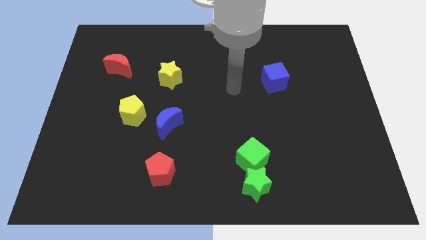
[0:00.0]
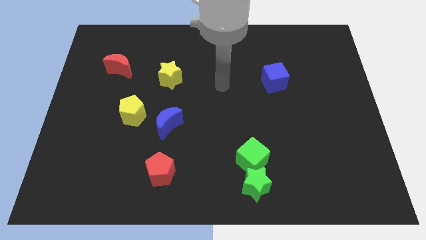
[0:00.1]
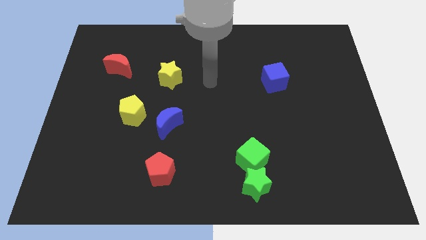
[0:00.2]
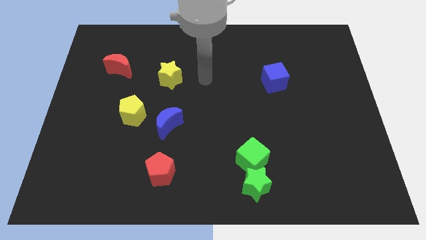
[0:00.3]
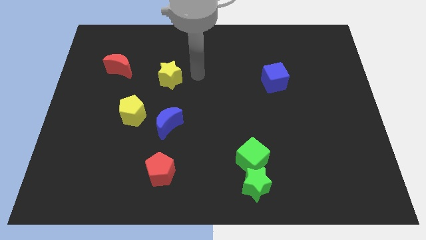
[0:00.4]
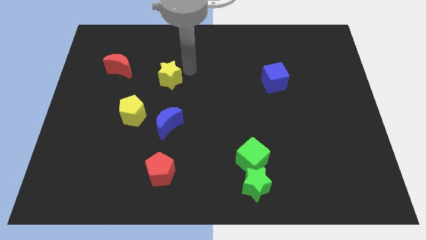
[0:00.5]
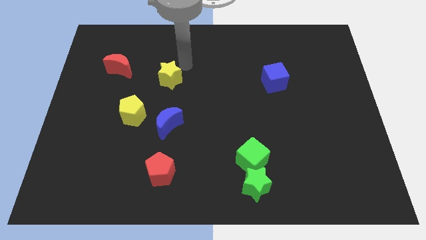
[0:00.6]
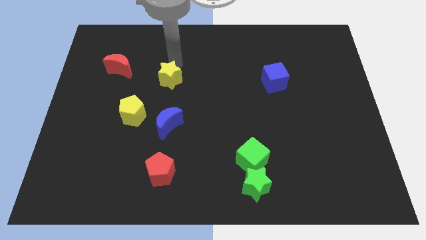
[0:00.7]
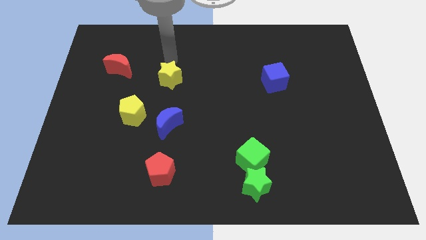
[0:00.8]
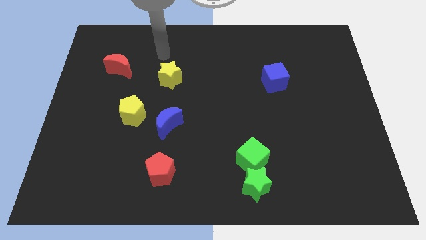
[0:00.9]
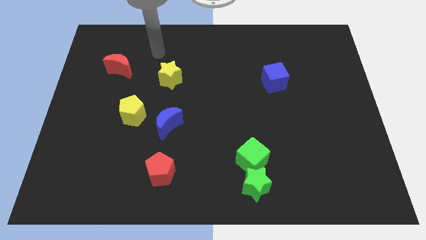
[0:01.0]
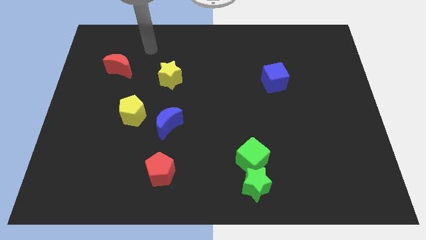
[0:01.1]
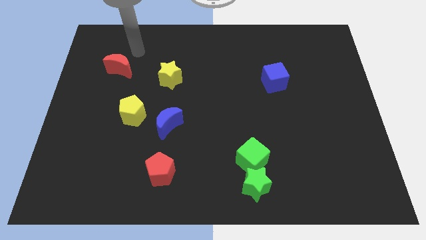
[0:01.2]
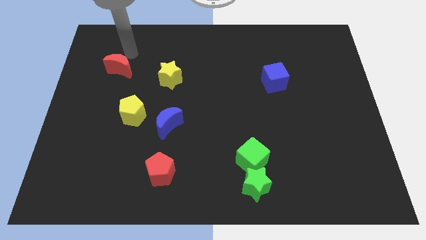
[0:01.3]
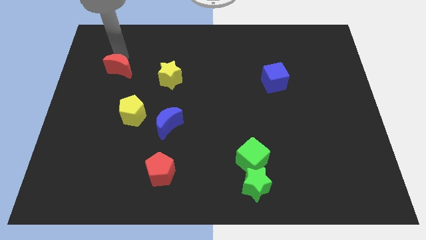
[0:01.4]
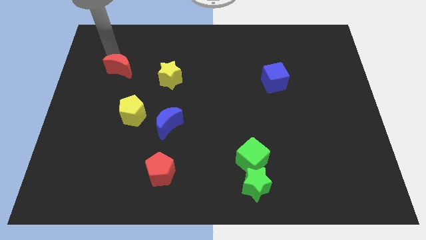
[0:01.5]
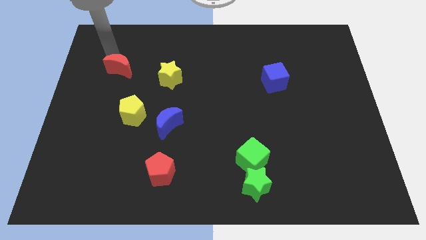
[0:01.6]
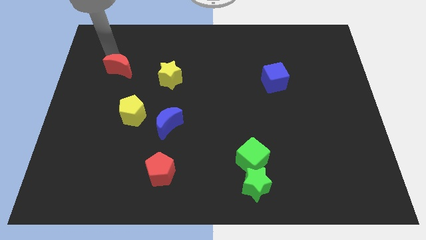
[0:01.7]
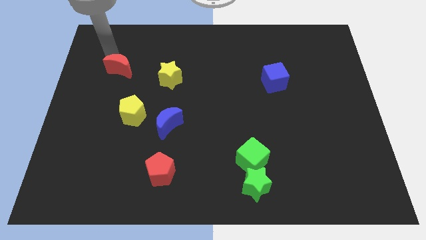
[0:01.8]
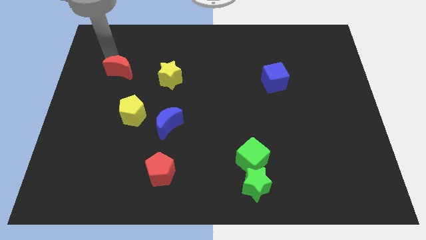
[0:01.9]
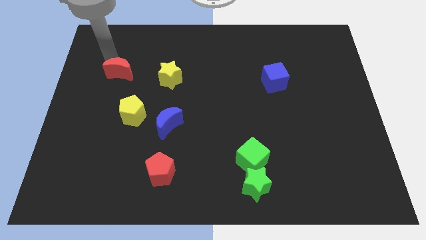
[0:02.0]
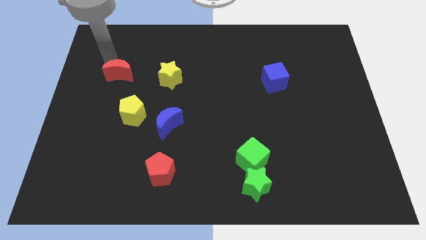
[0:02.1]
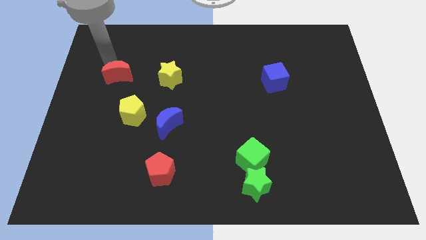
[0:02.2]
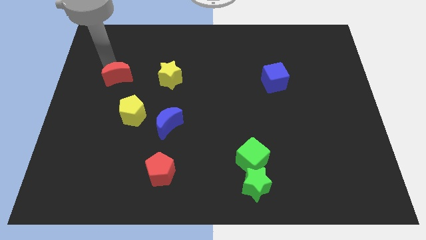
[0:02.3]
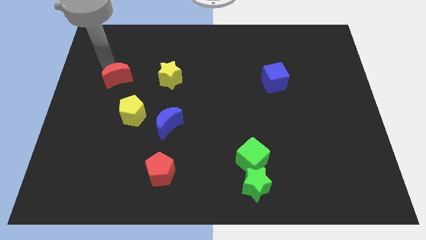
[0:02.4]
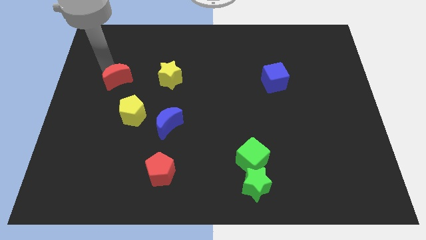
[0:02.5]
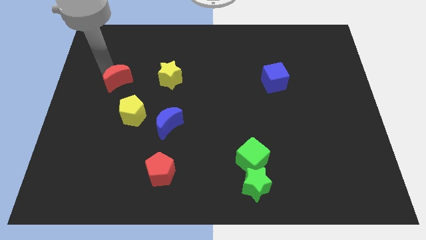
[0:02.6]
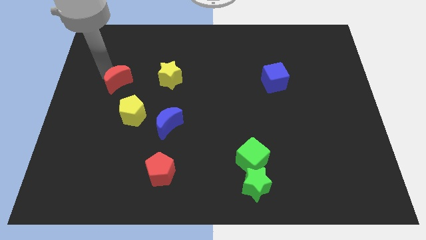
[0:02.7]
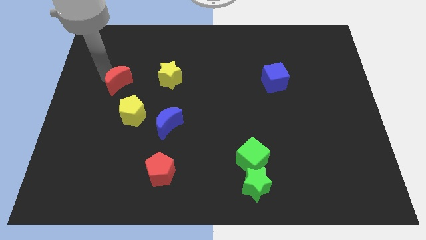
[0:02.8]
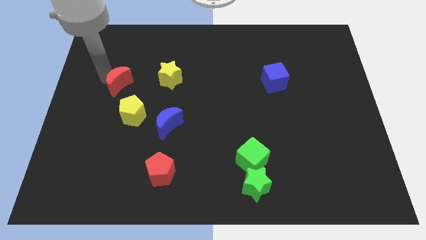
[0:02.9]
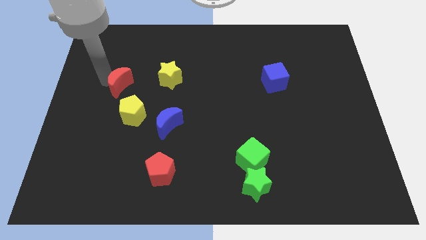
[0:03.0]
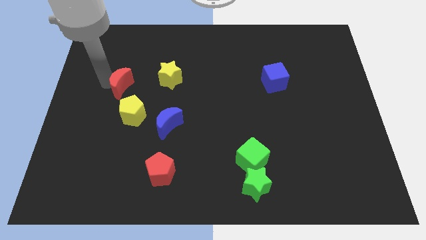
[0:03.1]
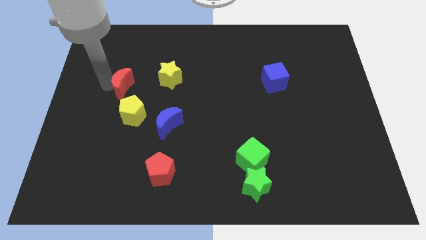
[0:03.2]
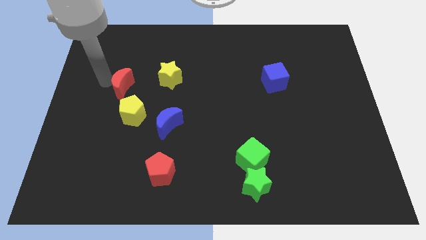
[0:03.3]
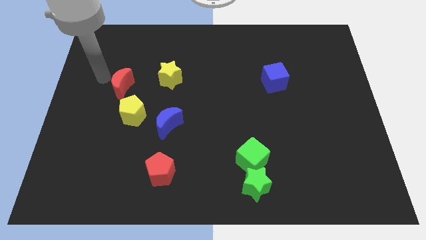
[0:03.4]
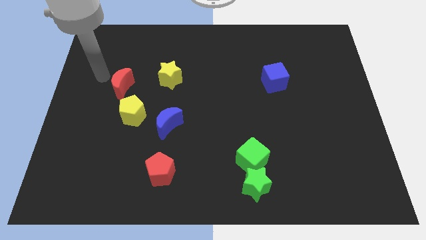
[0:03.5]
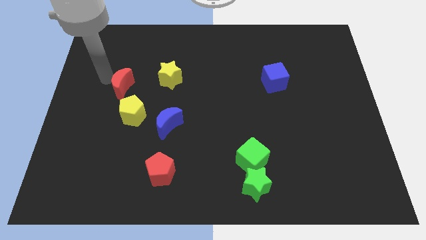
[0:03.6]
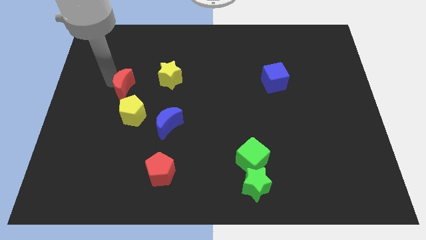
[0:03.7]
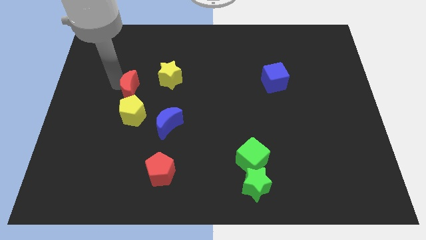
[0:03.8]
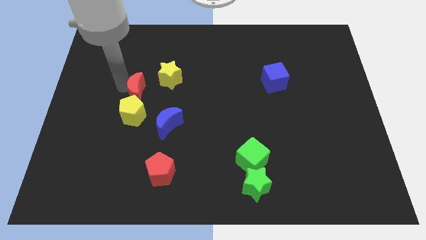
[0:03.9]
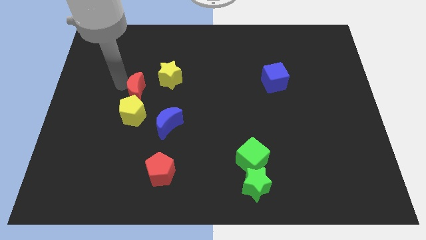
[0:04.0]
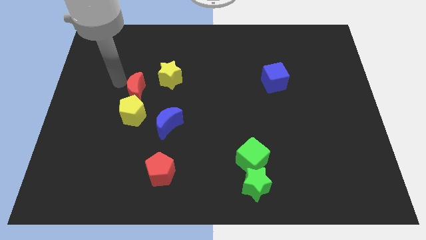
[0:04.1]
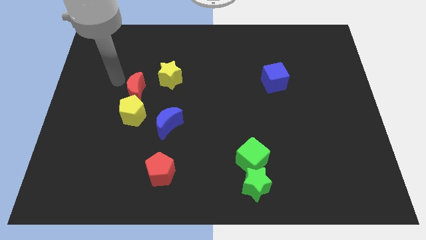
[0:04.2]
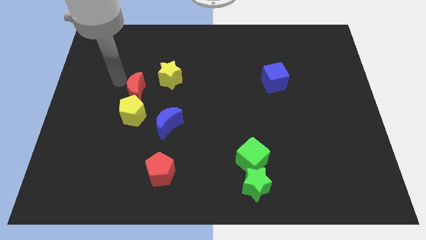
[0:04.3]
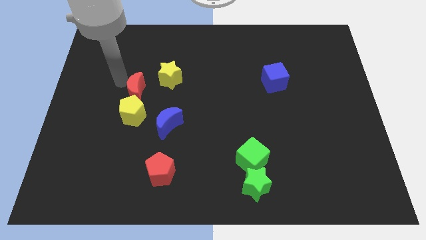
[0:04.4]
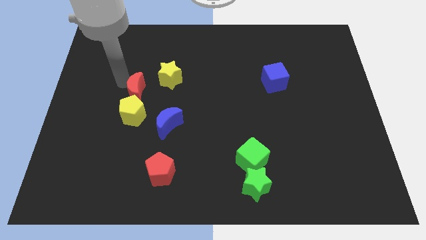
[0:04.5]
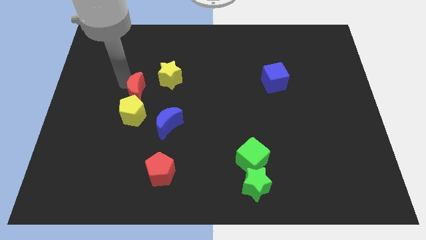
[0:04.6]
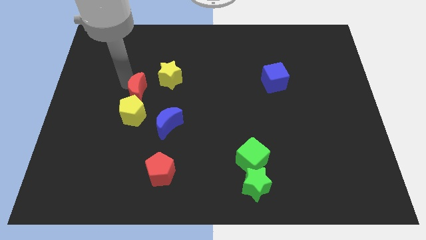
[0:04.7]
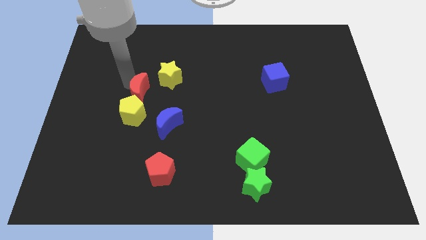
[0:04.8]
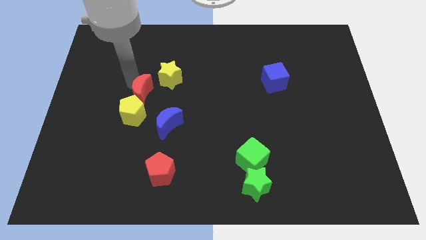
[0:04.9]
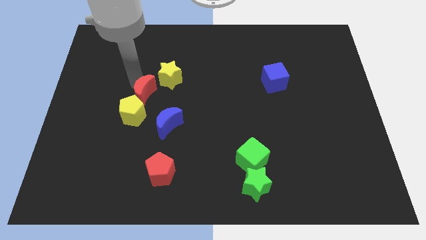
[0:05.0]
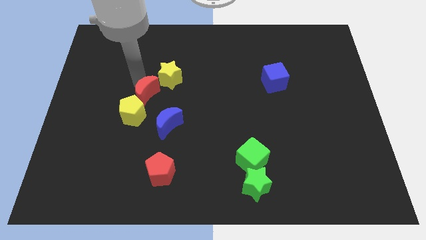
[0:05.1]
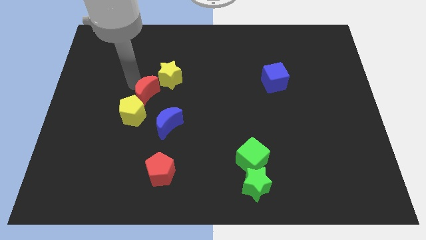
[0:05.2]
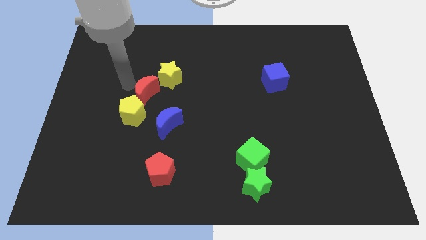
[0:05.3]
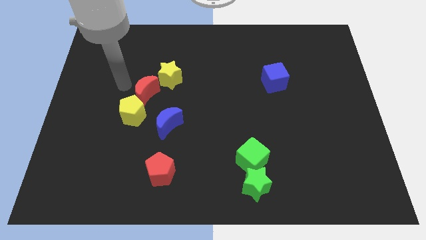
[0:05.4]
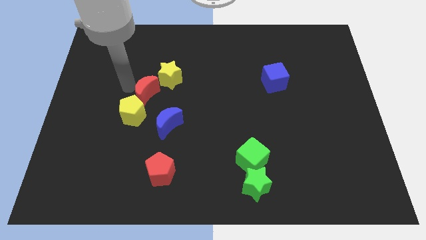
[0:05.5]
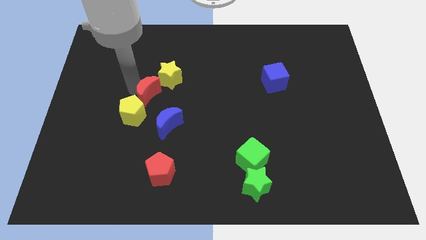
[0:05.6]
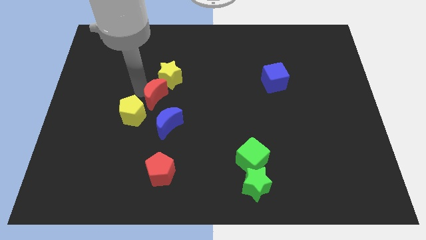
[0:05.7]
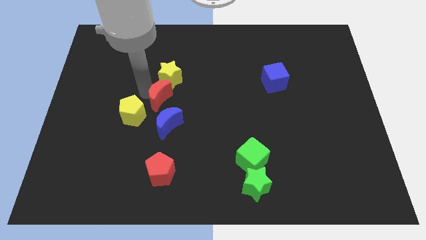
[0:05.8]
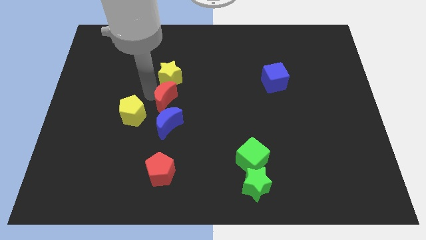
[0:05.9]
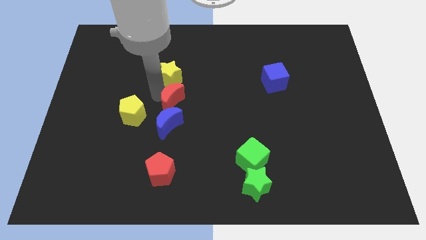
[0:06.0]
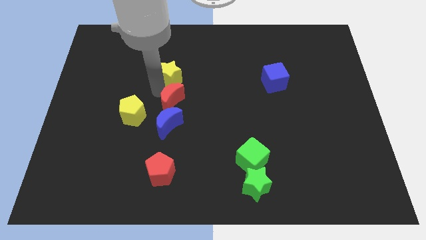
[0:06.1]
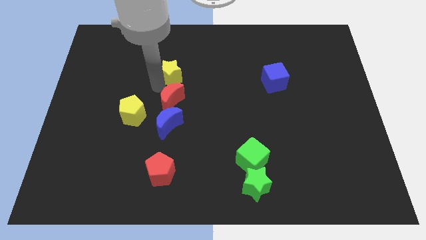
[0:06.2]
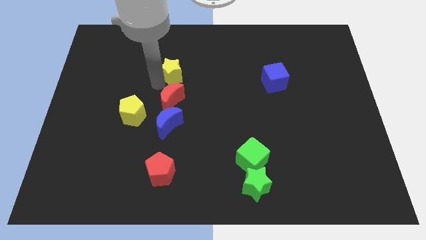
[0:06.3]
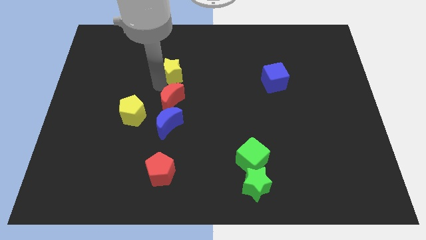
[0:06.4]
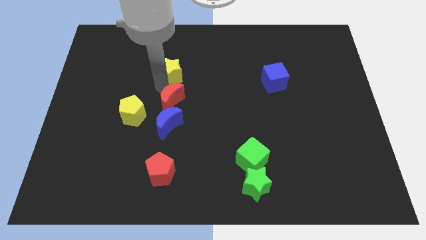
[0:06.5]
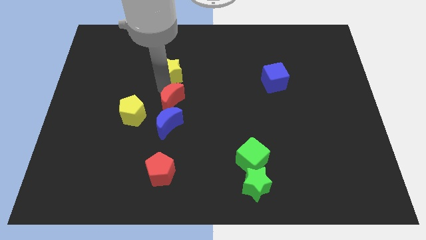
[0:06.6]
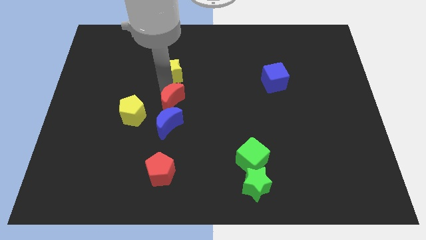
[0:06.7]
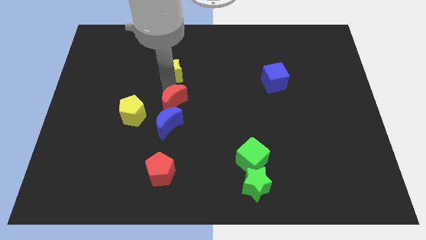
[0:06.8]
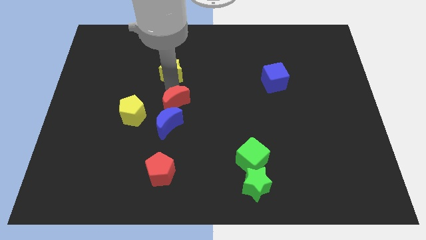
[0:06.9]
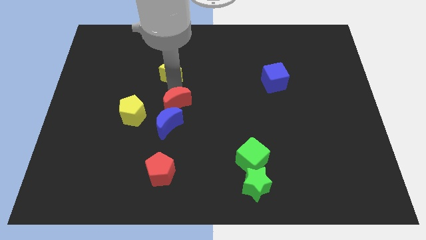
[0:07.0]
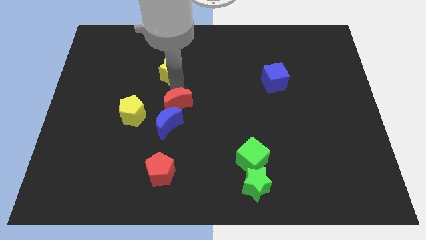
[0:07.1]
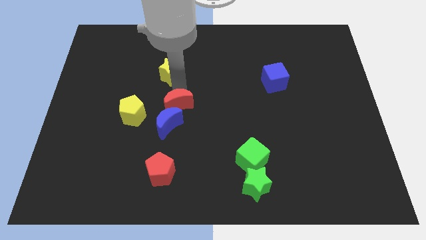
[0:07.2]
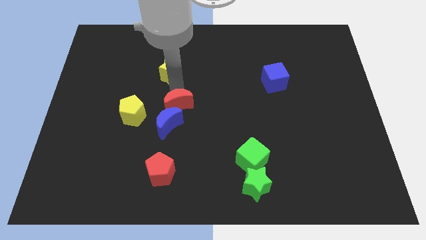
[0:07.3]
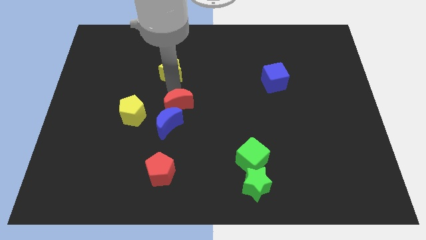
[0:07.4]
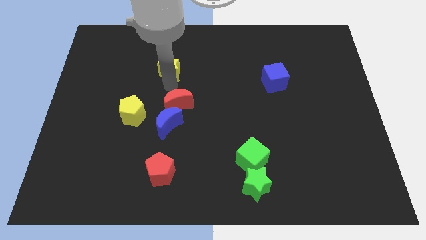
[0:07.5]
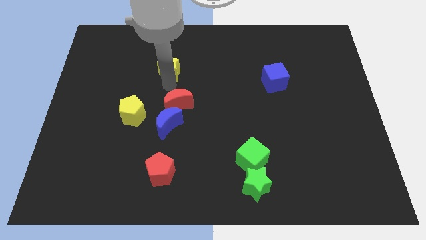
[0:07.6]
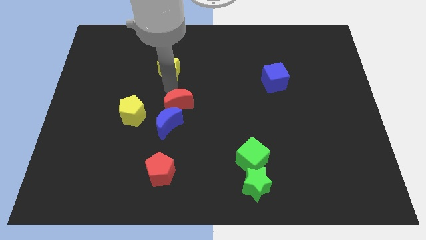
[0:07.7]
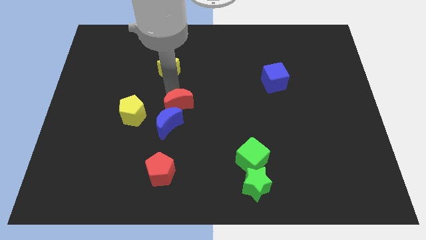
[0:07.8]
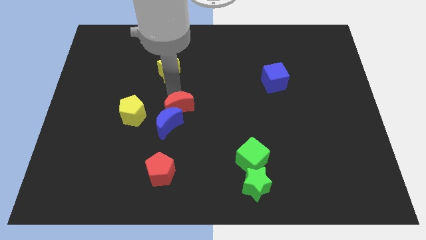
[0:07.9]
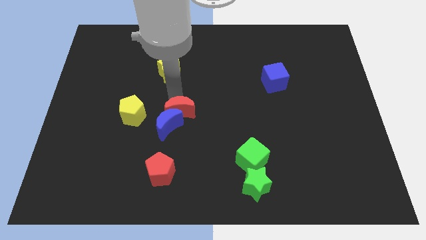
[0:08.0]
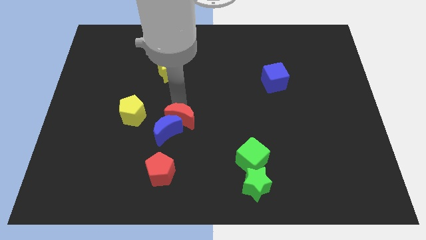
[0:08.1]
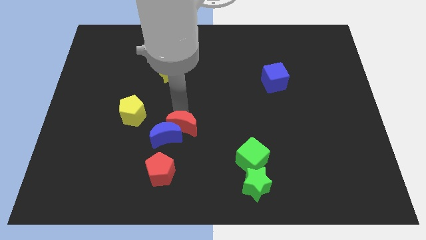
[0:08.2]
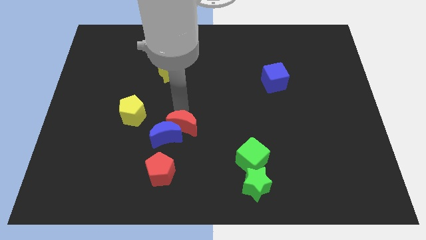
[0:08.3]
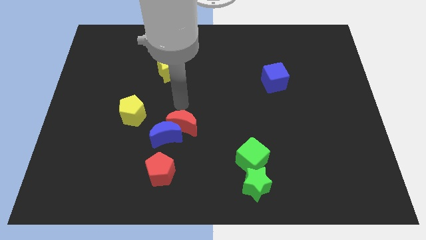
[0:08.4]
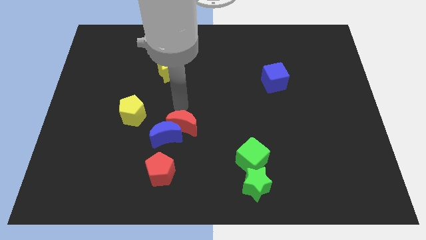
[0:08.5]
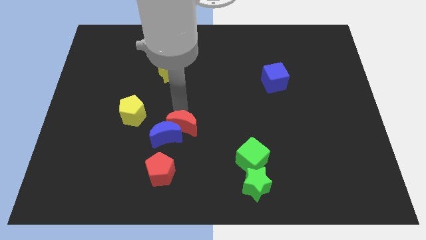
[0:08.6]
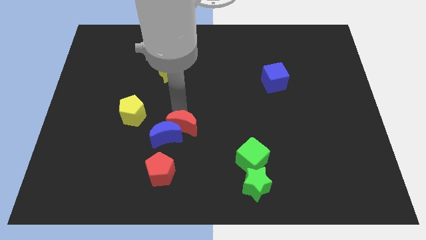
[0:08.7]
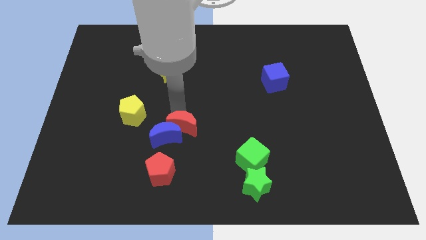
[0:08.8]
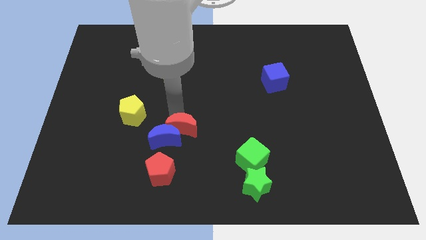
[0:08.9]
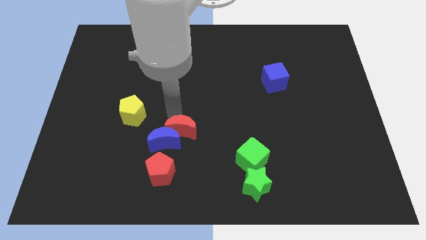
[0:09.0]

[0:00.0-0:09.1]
move the red moon to the top right of the red pentagon
